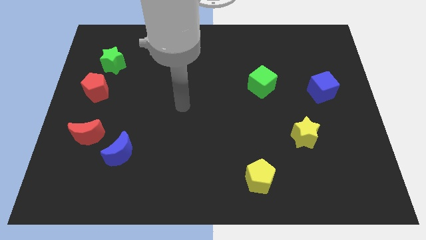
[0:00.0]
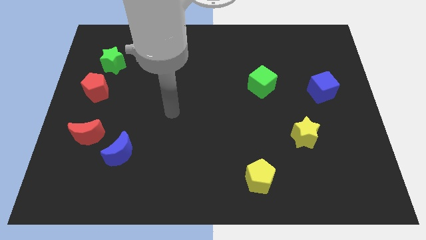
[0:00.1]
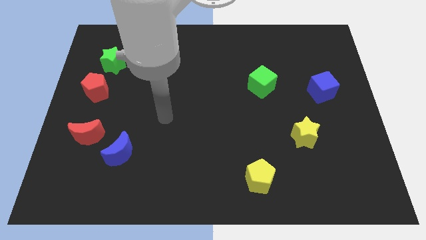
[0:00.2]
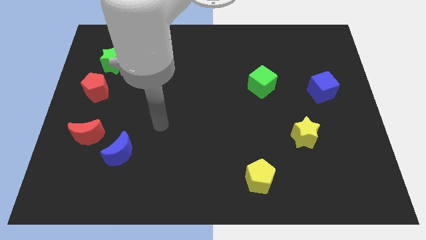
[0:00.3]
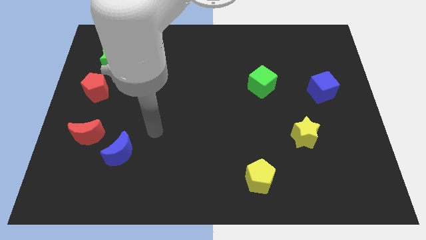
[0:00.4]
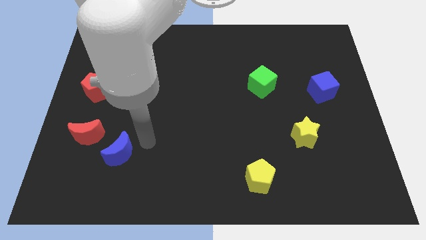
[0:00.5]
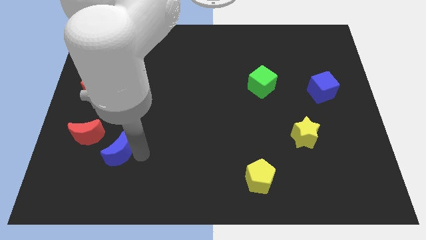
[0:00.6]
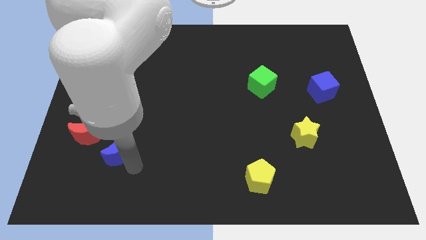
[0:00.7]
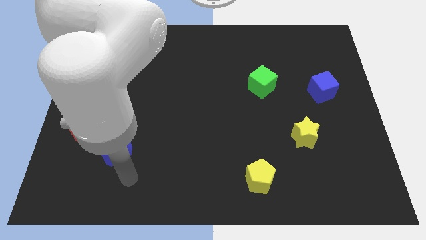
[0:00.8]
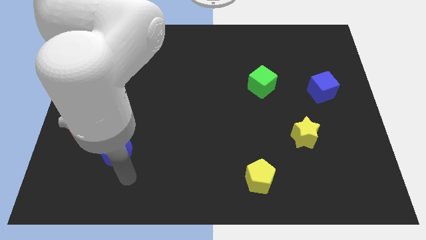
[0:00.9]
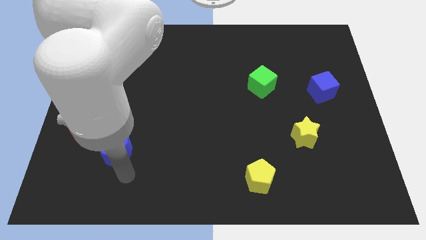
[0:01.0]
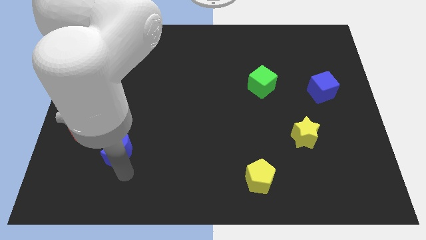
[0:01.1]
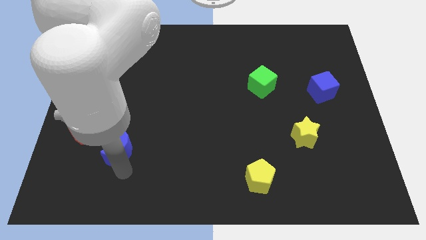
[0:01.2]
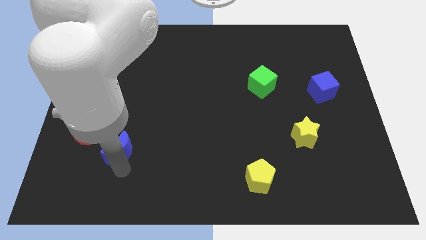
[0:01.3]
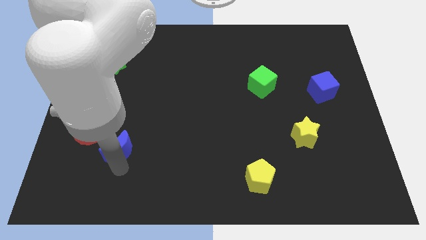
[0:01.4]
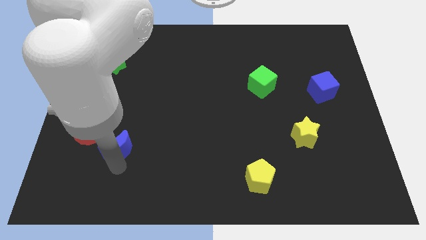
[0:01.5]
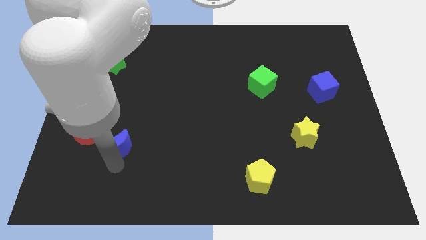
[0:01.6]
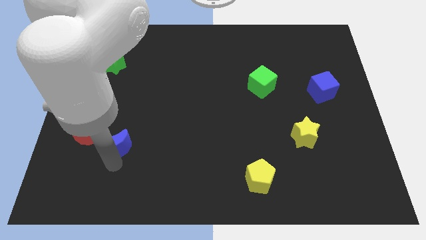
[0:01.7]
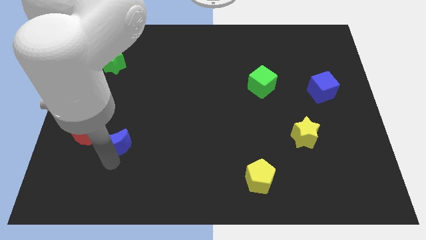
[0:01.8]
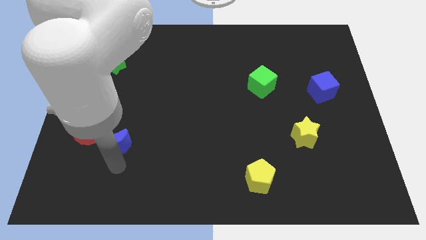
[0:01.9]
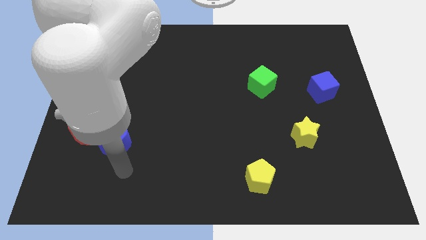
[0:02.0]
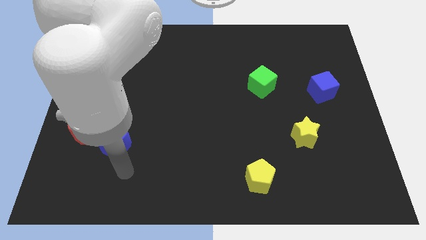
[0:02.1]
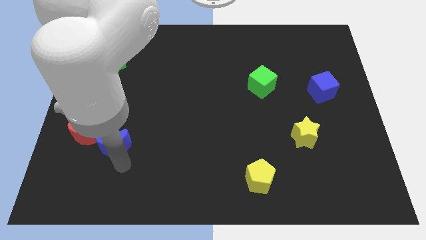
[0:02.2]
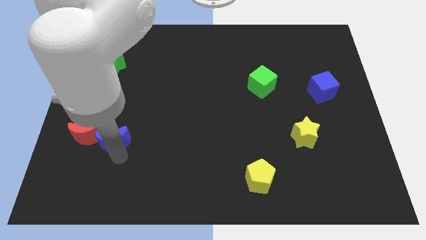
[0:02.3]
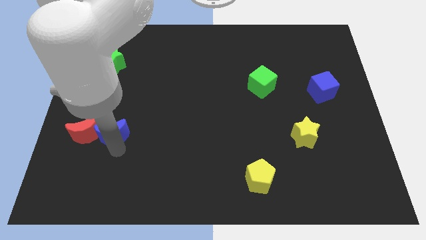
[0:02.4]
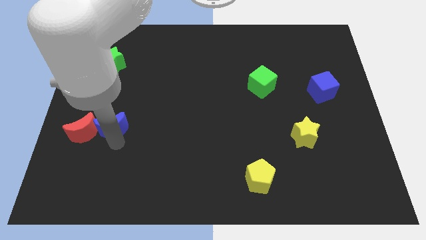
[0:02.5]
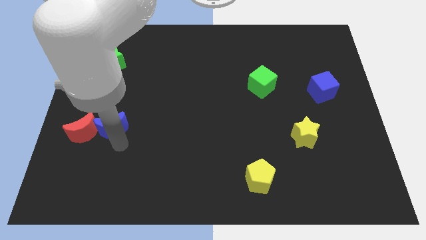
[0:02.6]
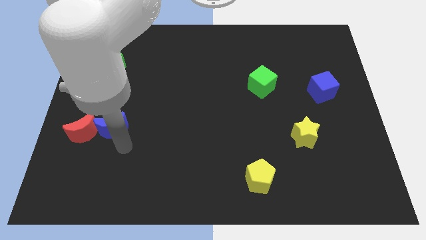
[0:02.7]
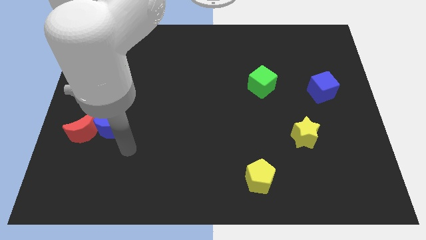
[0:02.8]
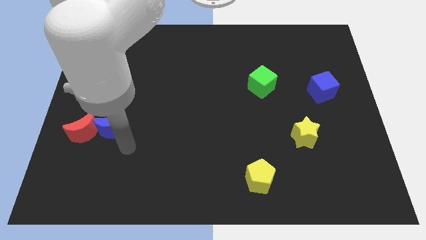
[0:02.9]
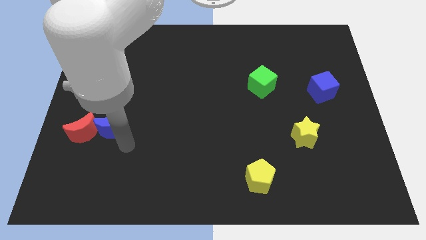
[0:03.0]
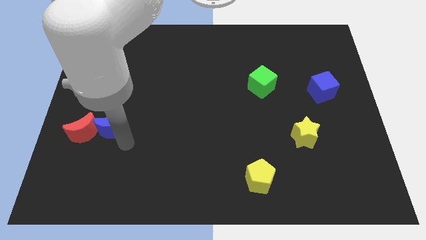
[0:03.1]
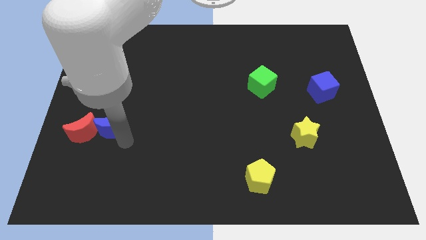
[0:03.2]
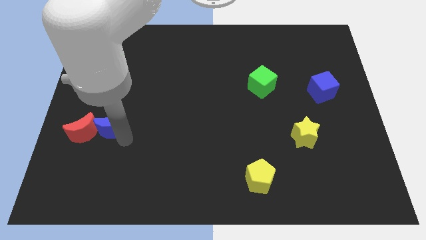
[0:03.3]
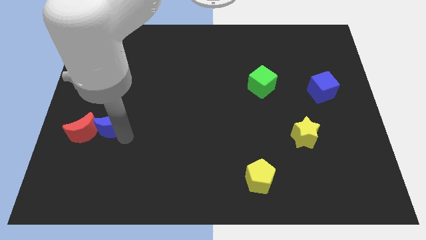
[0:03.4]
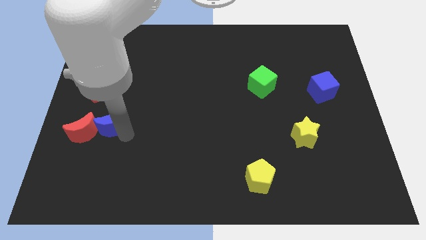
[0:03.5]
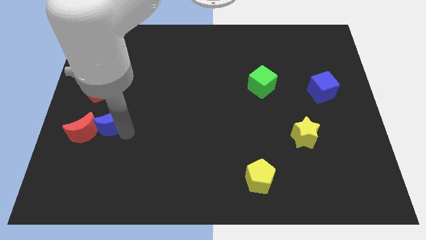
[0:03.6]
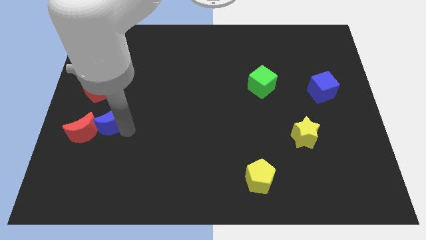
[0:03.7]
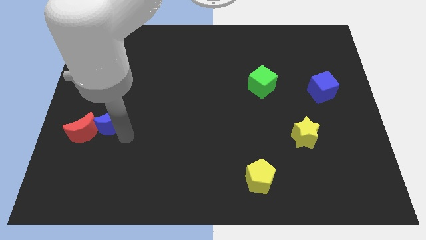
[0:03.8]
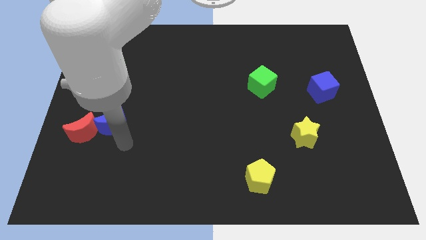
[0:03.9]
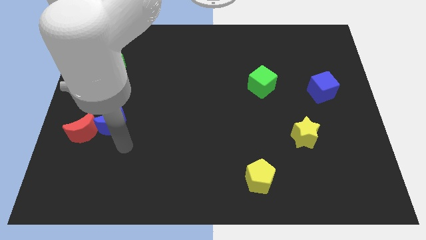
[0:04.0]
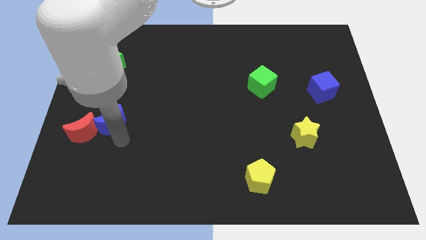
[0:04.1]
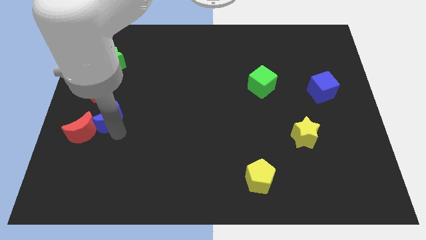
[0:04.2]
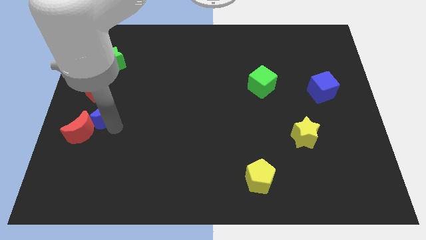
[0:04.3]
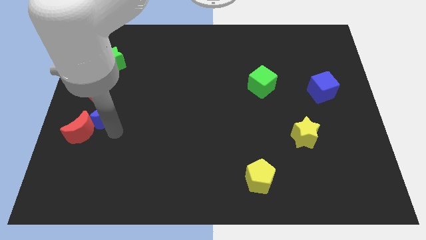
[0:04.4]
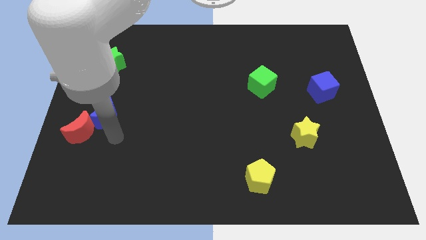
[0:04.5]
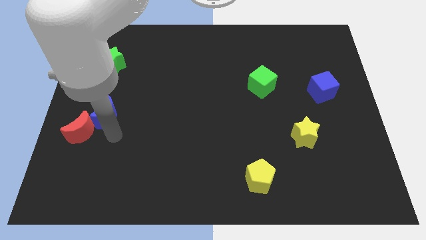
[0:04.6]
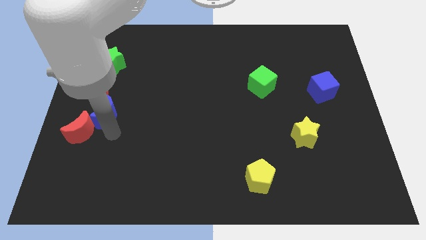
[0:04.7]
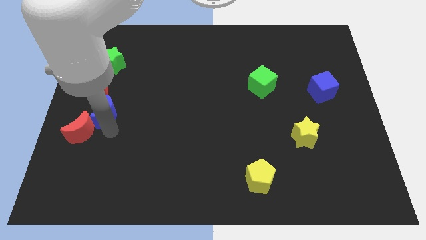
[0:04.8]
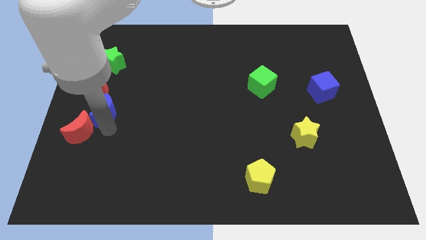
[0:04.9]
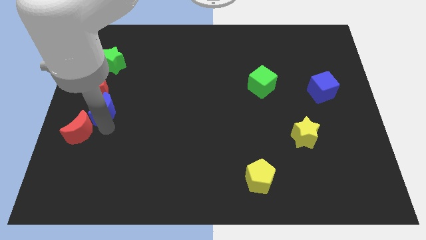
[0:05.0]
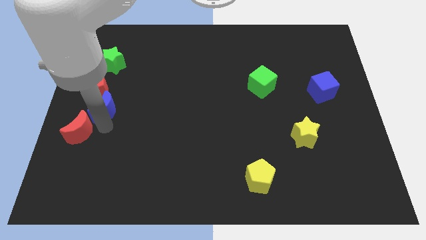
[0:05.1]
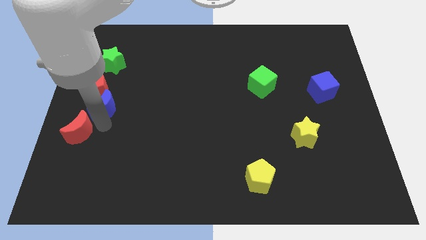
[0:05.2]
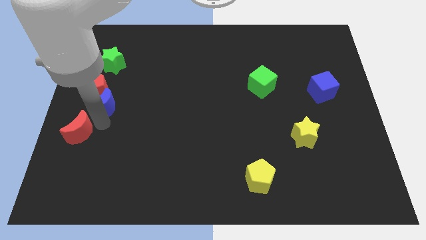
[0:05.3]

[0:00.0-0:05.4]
push the blue moon to the red pentagon
